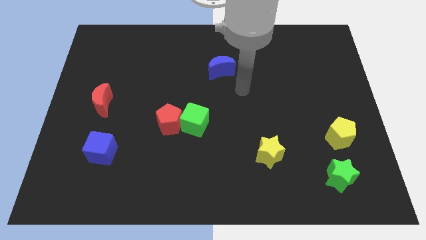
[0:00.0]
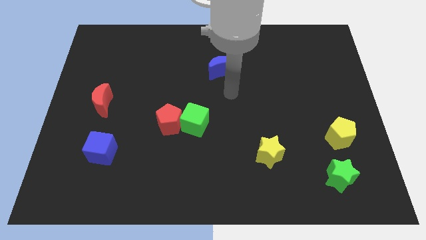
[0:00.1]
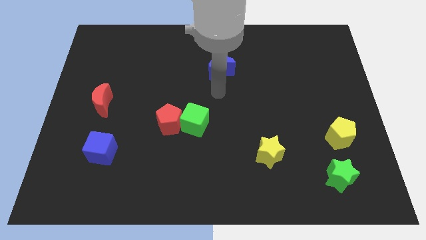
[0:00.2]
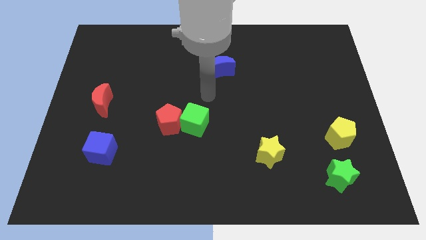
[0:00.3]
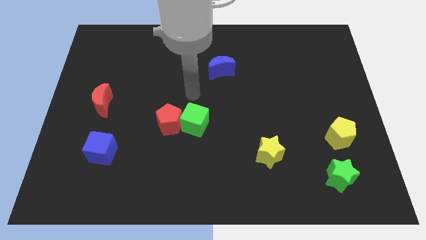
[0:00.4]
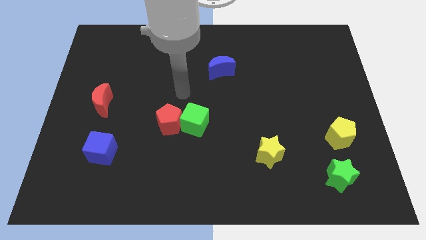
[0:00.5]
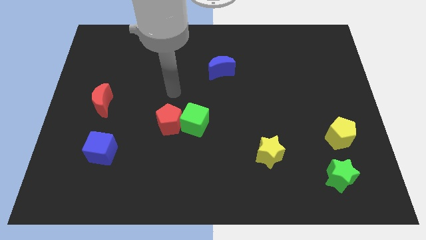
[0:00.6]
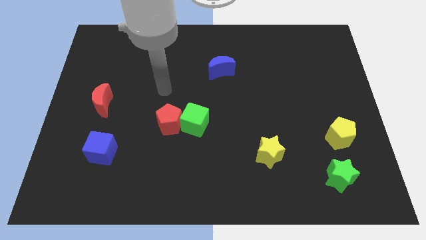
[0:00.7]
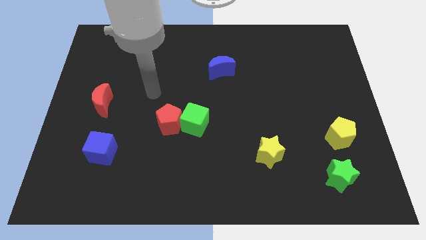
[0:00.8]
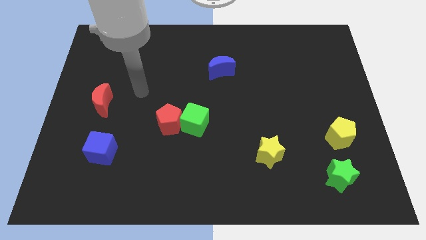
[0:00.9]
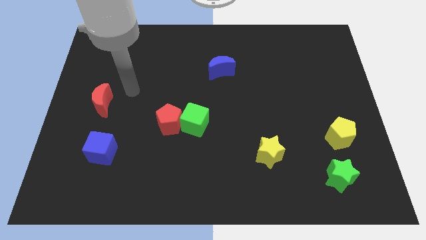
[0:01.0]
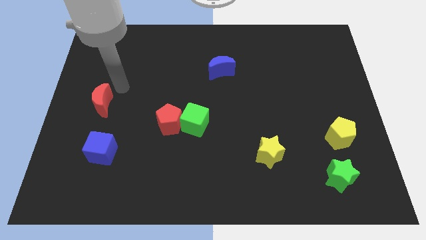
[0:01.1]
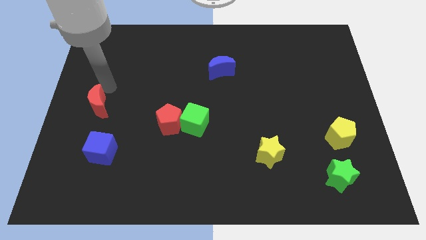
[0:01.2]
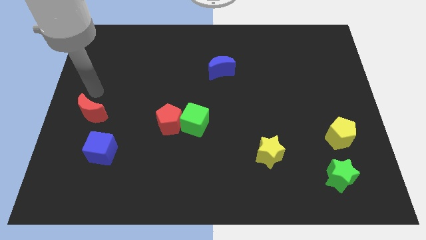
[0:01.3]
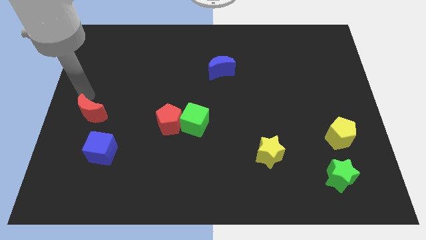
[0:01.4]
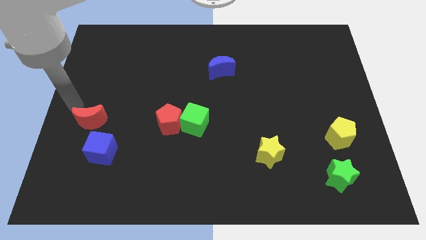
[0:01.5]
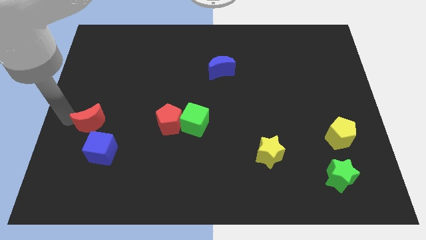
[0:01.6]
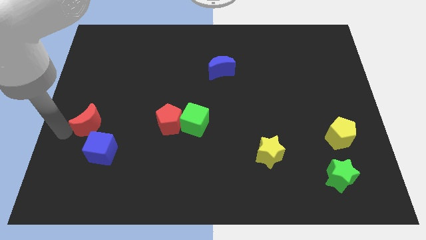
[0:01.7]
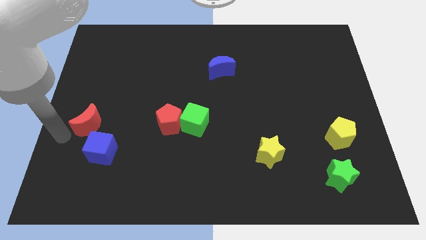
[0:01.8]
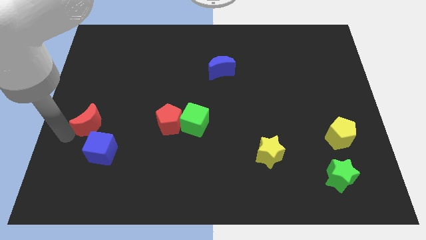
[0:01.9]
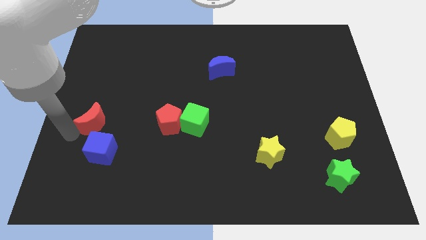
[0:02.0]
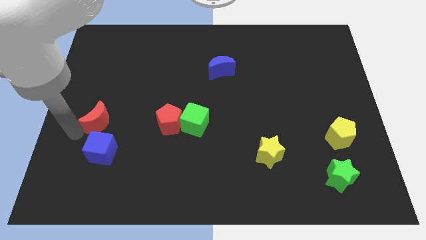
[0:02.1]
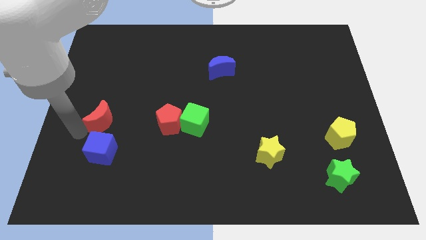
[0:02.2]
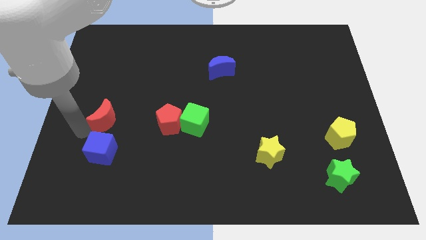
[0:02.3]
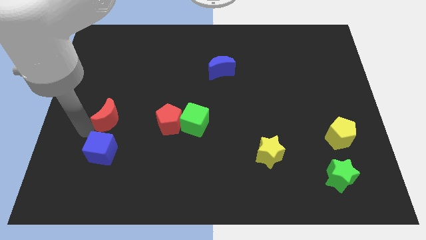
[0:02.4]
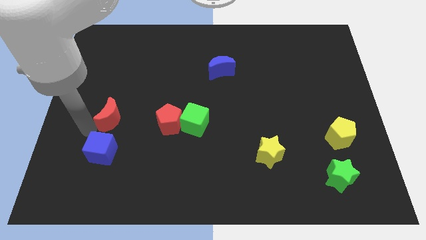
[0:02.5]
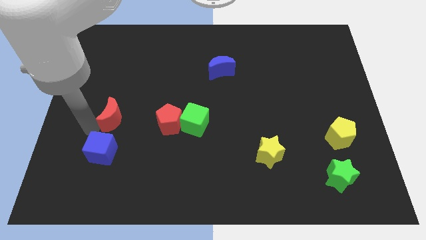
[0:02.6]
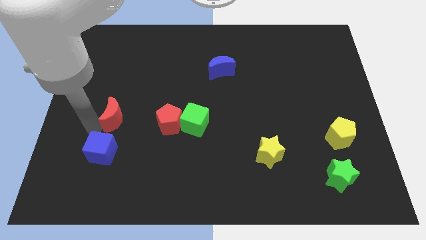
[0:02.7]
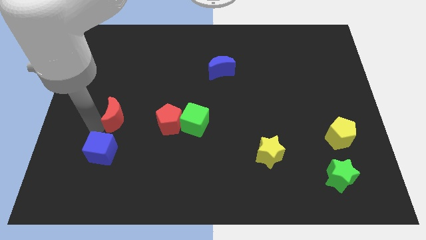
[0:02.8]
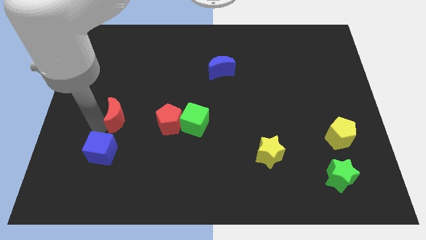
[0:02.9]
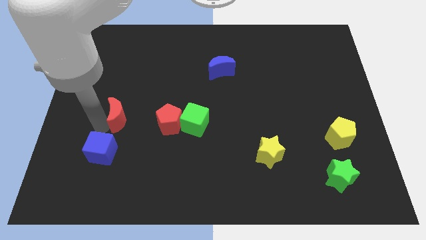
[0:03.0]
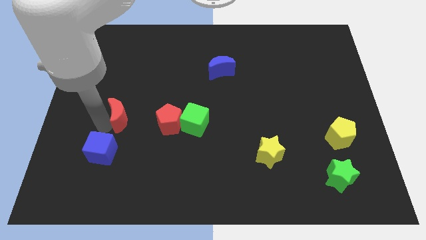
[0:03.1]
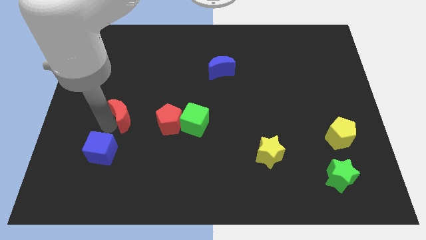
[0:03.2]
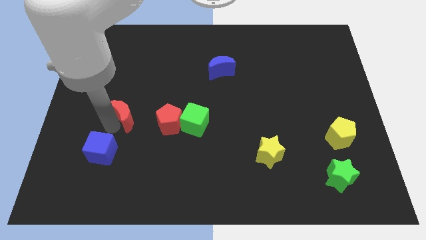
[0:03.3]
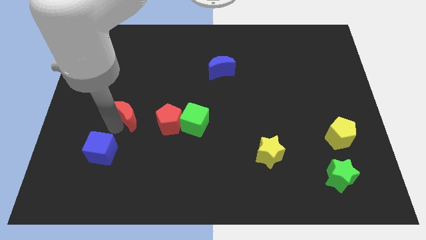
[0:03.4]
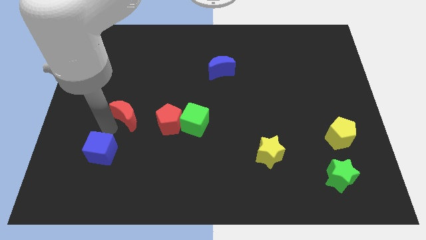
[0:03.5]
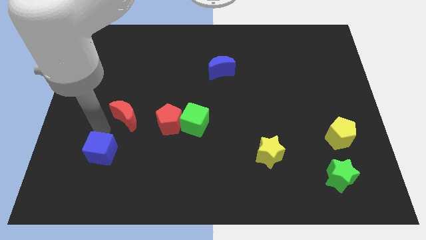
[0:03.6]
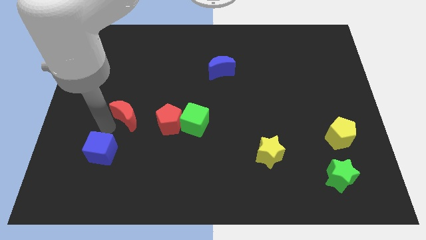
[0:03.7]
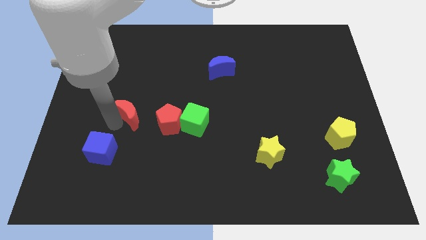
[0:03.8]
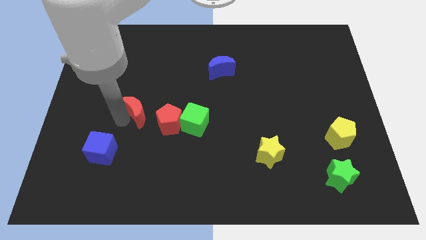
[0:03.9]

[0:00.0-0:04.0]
slide the red moon a bit to the right

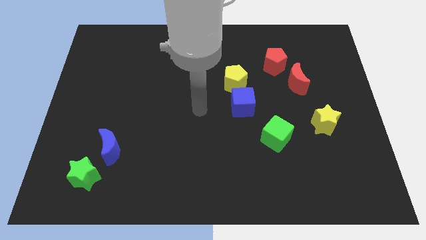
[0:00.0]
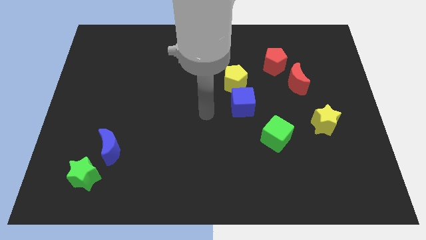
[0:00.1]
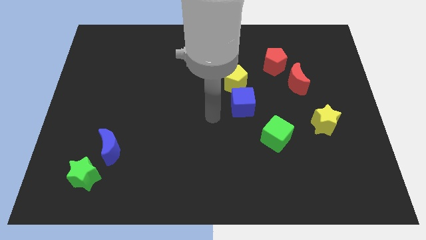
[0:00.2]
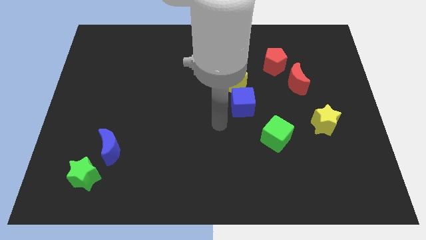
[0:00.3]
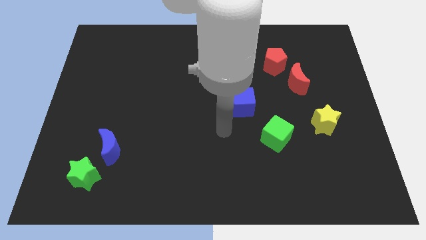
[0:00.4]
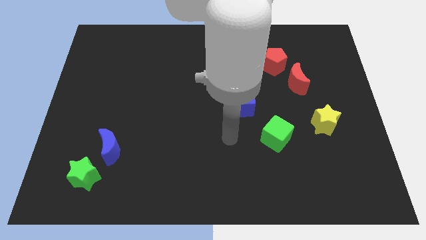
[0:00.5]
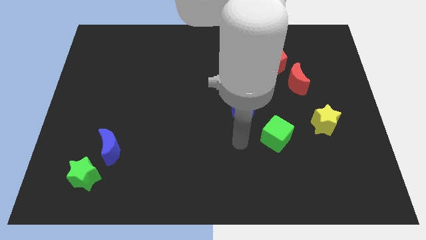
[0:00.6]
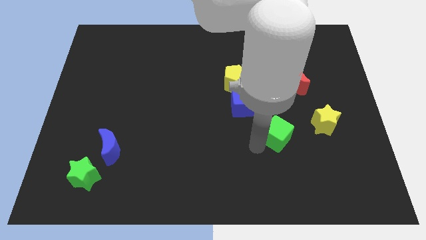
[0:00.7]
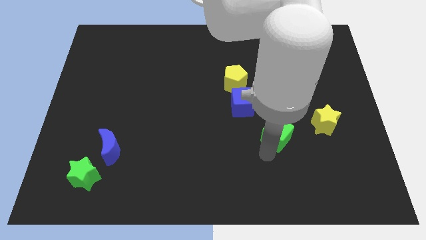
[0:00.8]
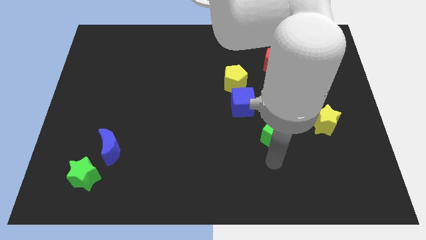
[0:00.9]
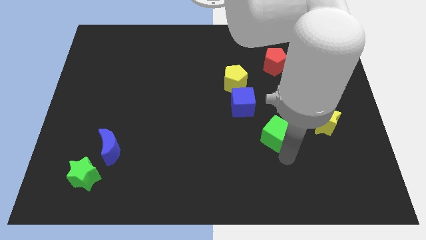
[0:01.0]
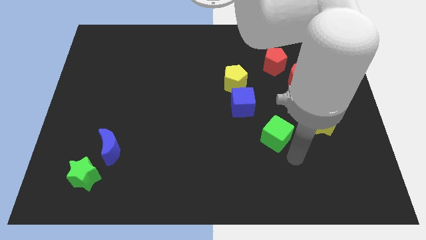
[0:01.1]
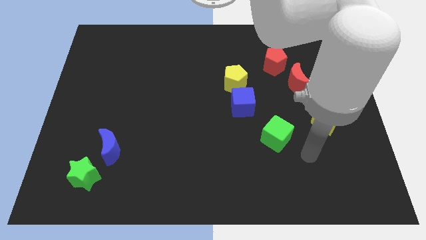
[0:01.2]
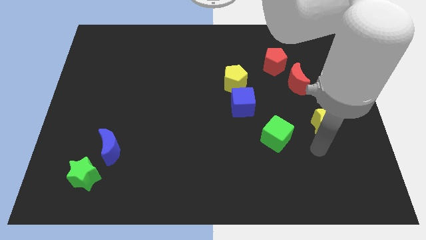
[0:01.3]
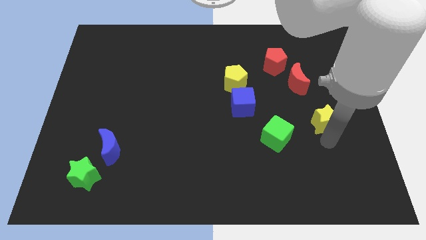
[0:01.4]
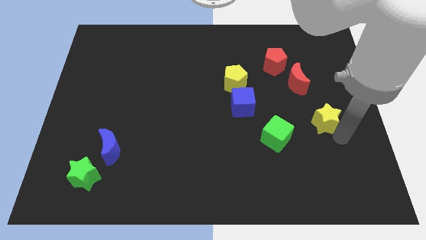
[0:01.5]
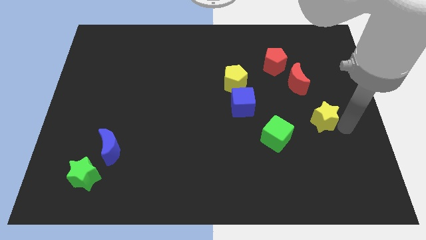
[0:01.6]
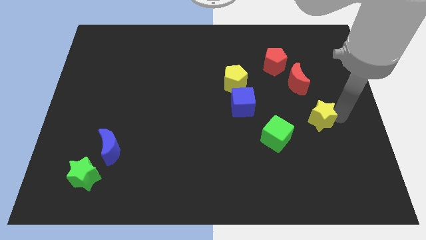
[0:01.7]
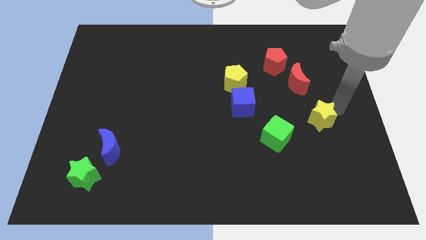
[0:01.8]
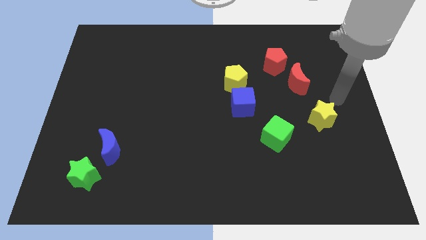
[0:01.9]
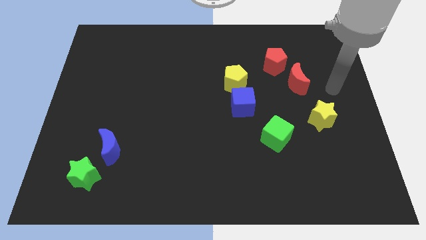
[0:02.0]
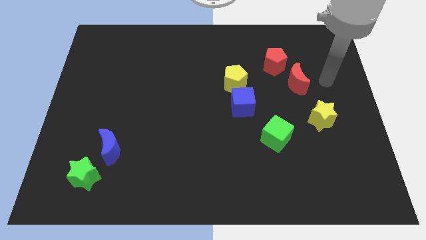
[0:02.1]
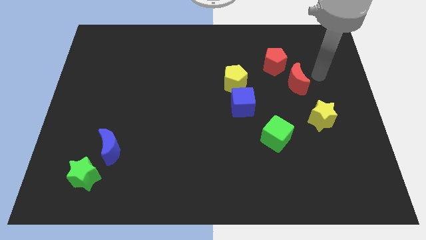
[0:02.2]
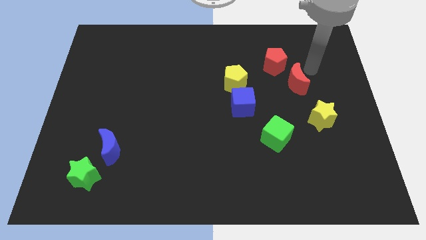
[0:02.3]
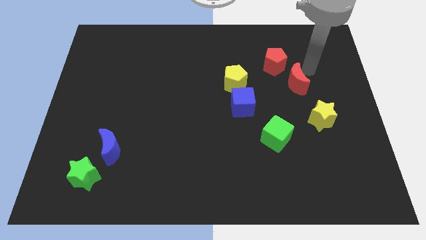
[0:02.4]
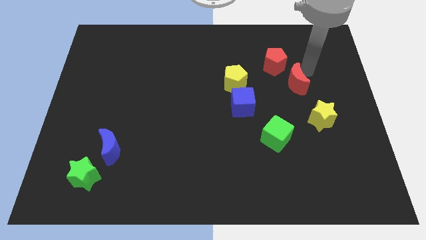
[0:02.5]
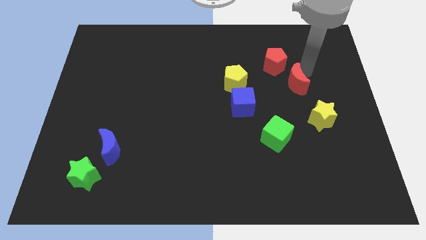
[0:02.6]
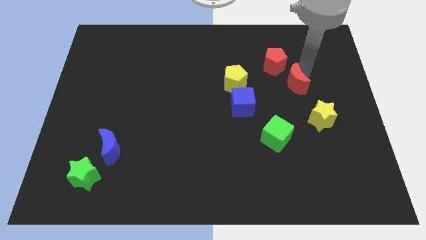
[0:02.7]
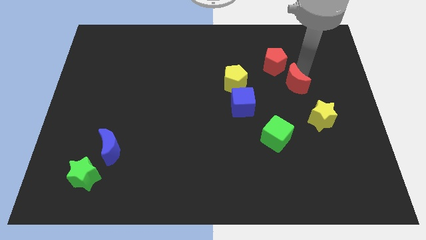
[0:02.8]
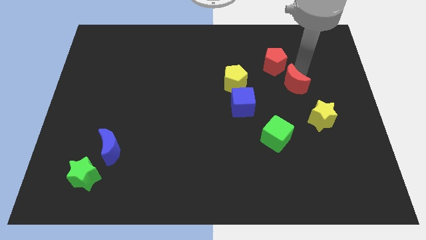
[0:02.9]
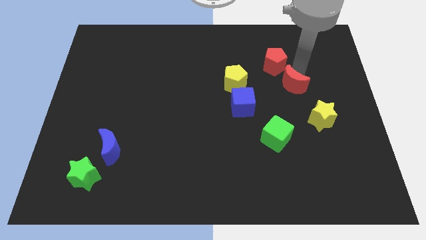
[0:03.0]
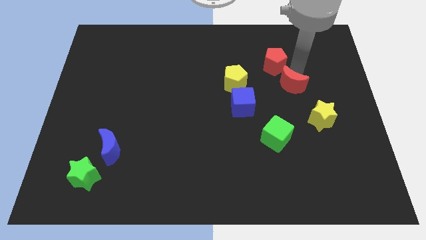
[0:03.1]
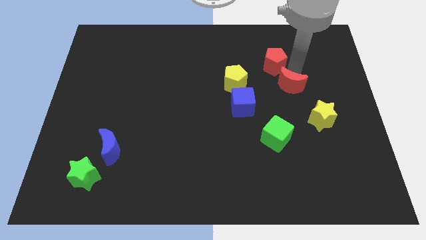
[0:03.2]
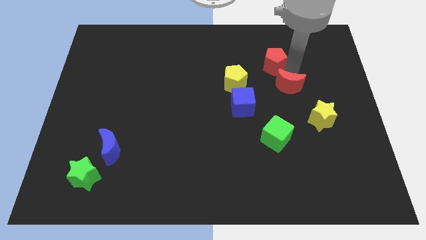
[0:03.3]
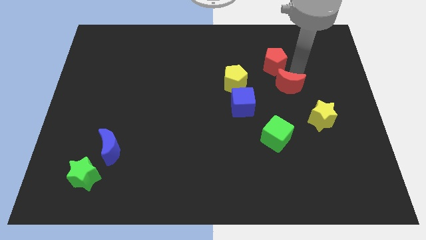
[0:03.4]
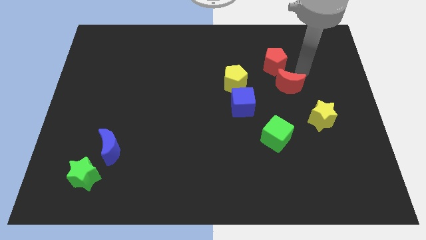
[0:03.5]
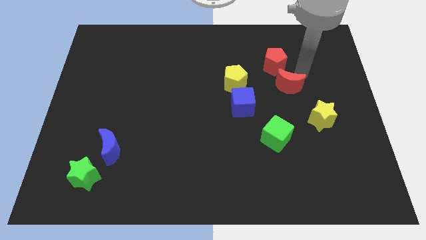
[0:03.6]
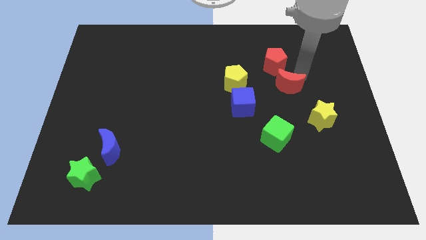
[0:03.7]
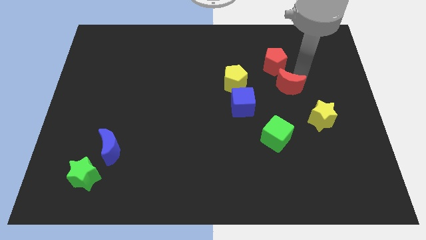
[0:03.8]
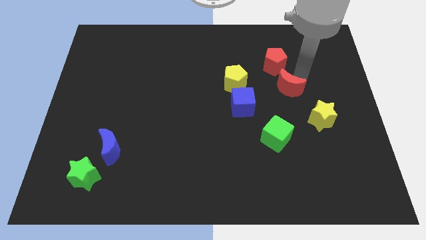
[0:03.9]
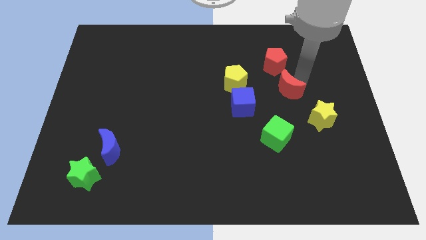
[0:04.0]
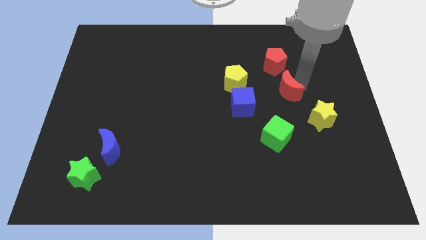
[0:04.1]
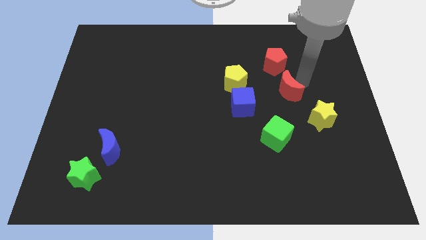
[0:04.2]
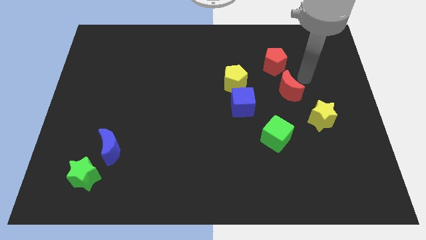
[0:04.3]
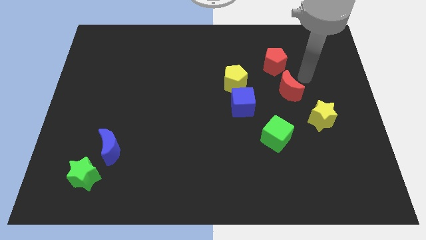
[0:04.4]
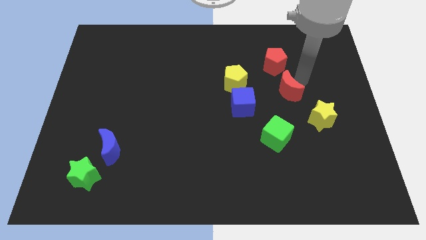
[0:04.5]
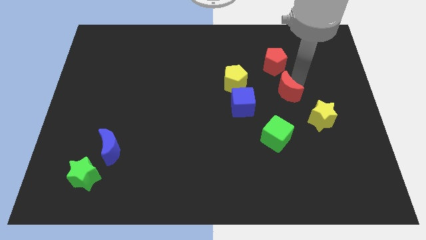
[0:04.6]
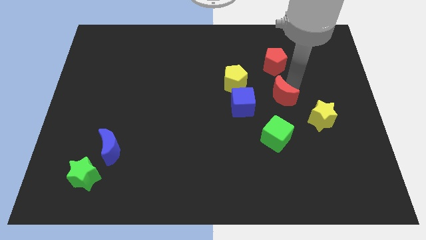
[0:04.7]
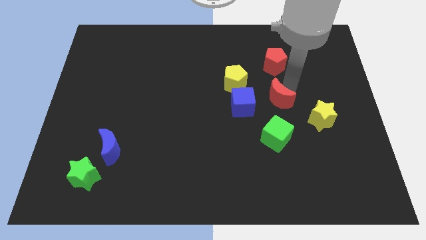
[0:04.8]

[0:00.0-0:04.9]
push the red moon slightly downwards and to the left
